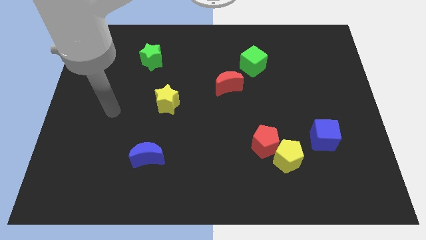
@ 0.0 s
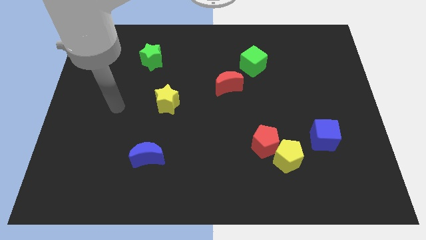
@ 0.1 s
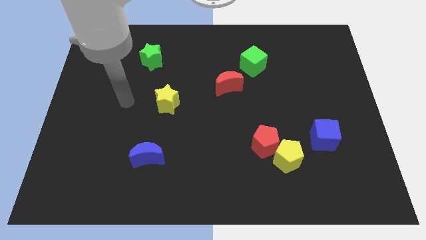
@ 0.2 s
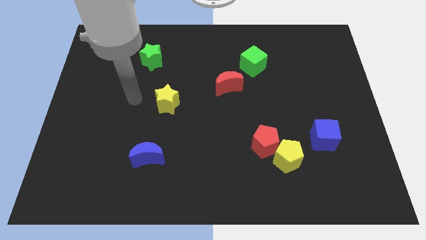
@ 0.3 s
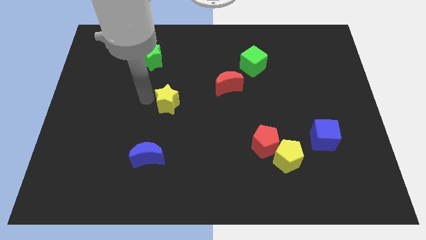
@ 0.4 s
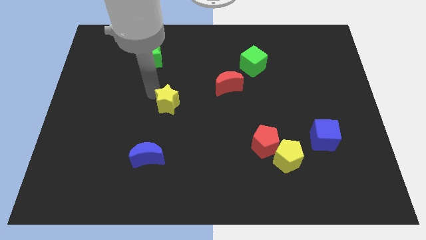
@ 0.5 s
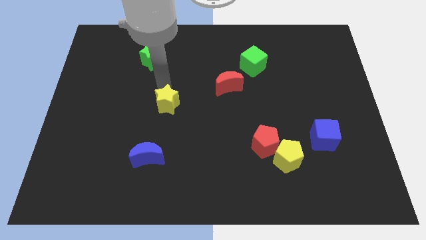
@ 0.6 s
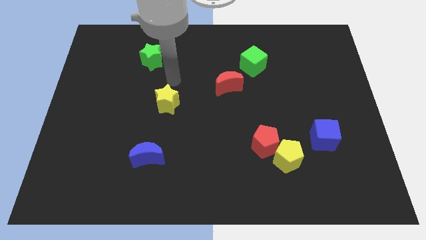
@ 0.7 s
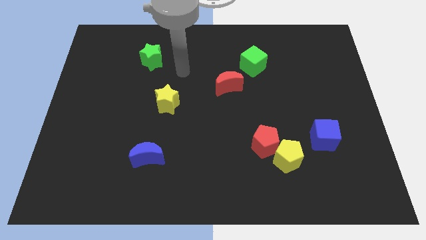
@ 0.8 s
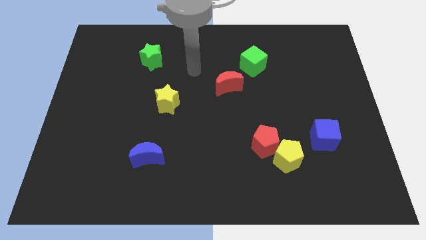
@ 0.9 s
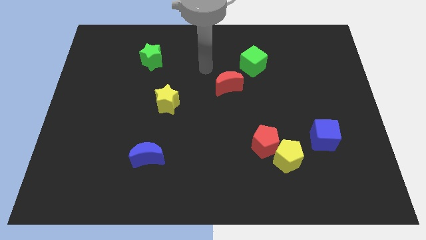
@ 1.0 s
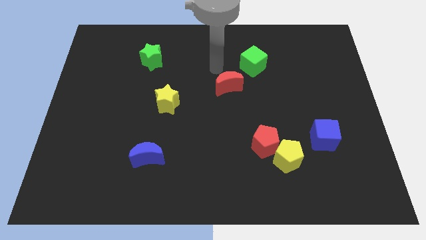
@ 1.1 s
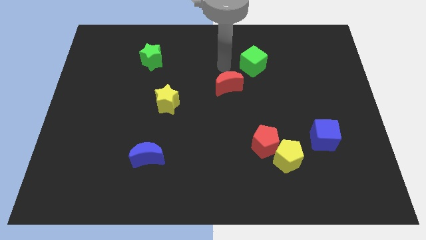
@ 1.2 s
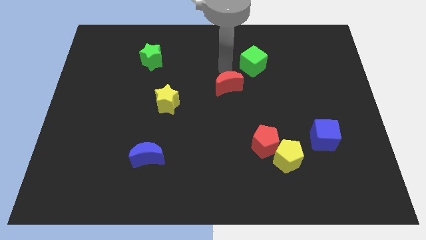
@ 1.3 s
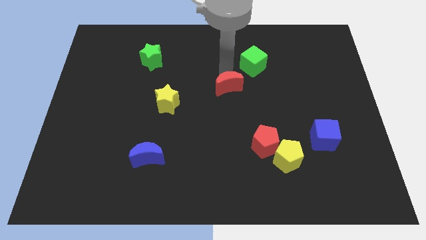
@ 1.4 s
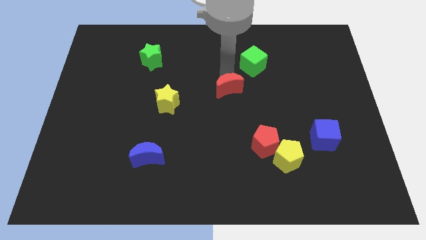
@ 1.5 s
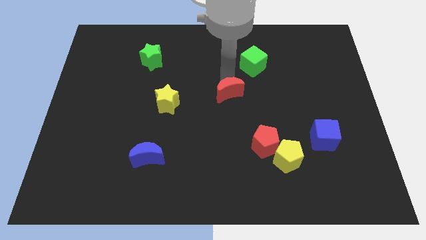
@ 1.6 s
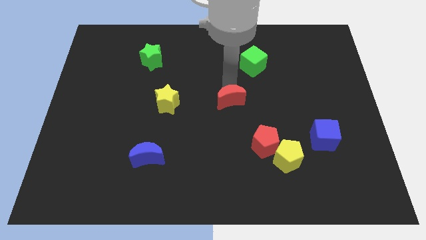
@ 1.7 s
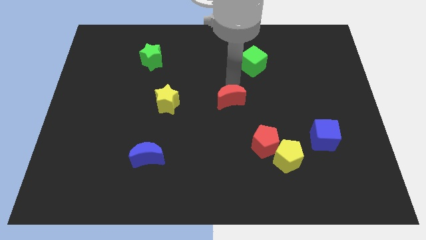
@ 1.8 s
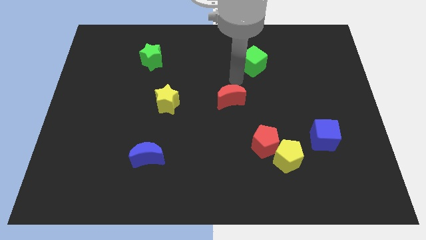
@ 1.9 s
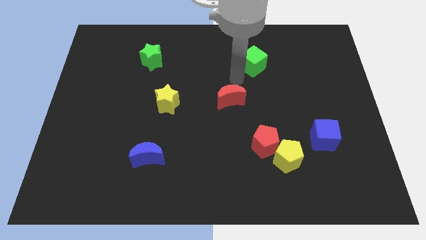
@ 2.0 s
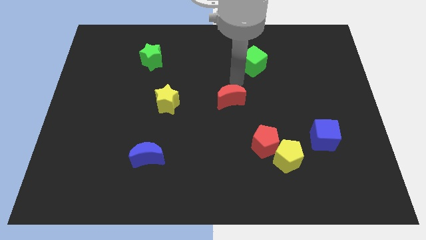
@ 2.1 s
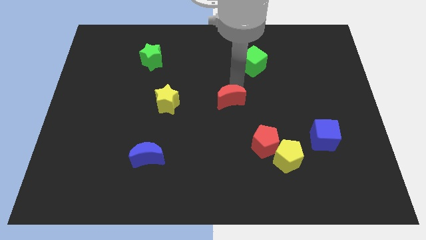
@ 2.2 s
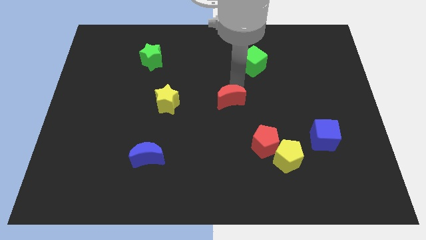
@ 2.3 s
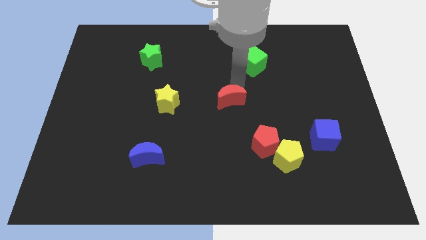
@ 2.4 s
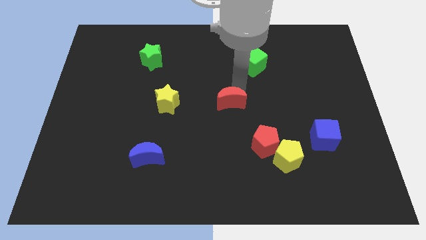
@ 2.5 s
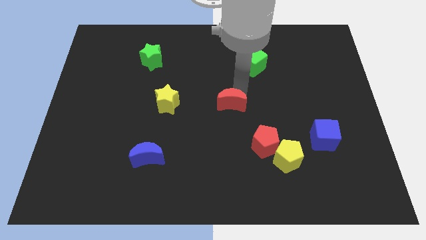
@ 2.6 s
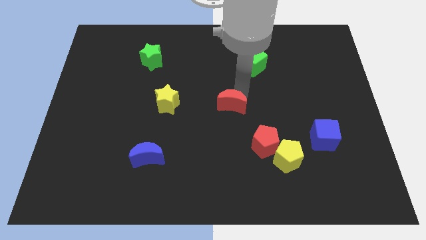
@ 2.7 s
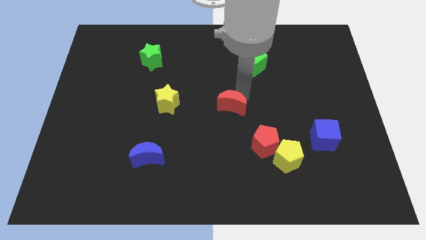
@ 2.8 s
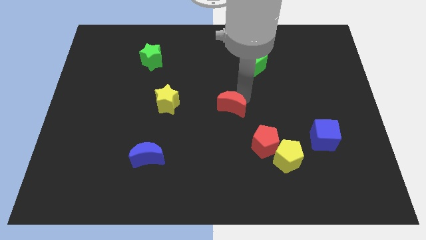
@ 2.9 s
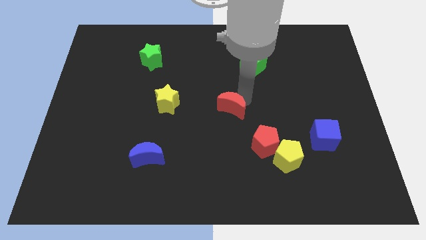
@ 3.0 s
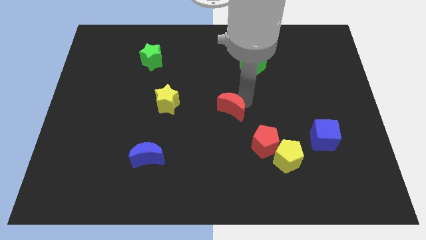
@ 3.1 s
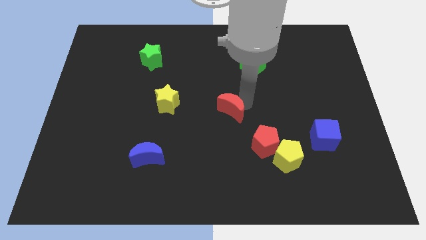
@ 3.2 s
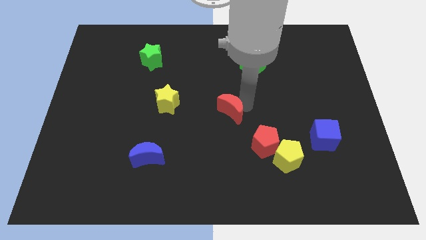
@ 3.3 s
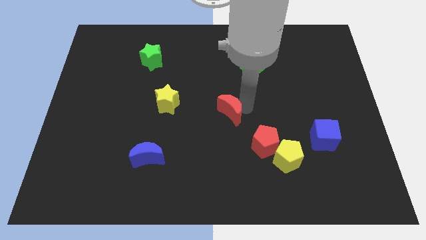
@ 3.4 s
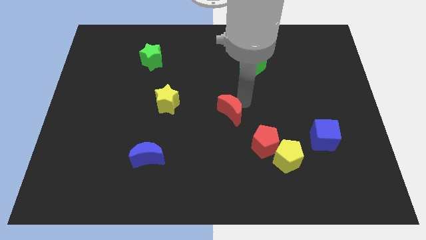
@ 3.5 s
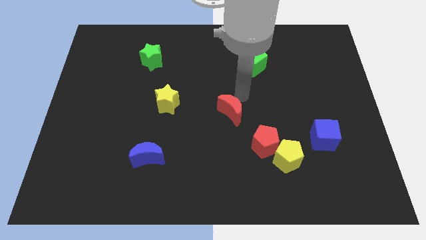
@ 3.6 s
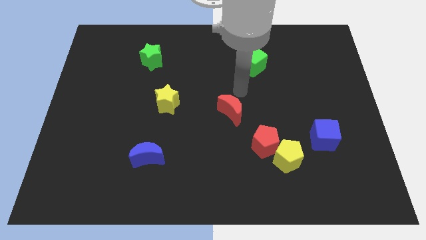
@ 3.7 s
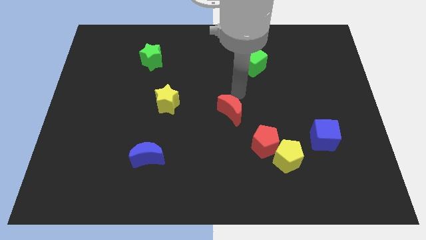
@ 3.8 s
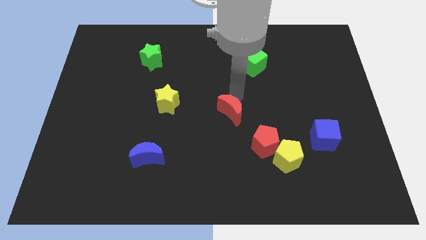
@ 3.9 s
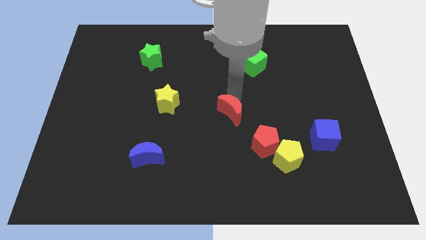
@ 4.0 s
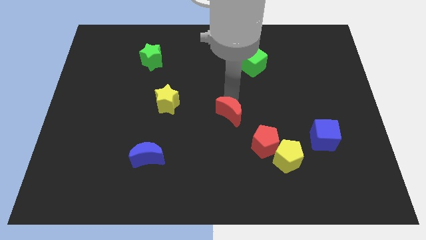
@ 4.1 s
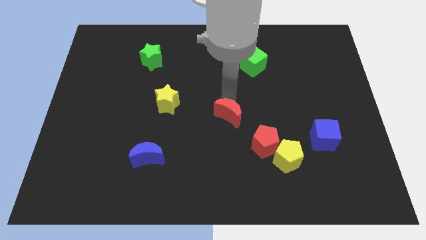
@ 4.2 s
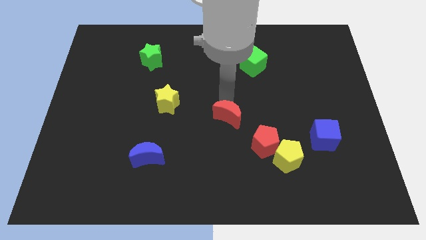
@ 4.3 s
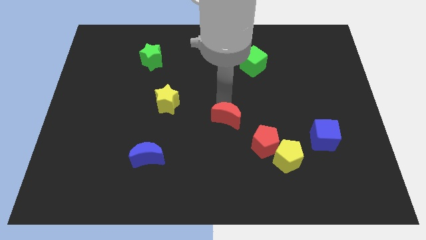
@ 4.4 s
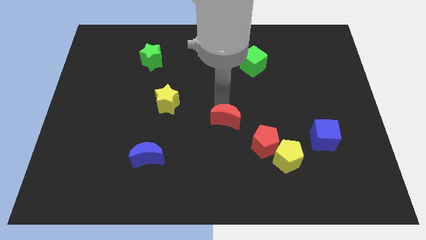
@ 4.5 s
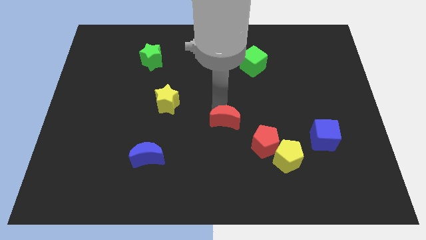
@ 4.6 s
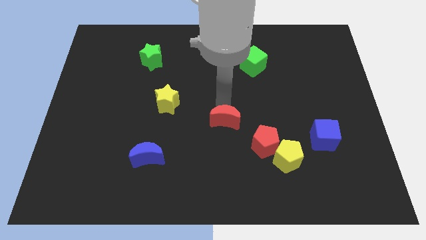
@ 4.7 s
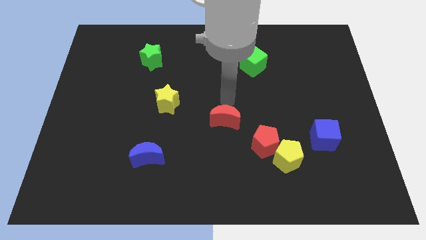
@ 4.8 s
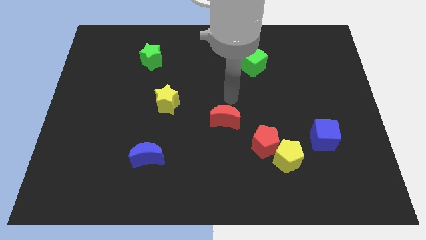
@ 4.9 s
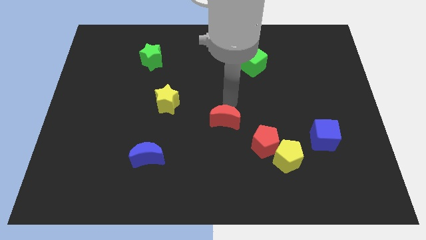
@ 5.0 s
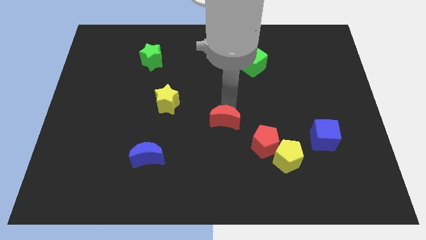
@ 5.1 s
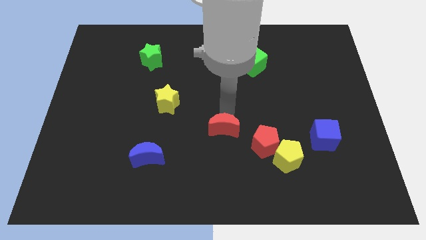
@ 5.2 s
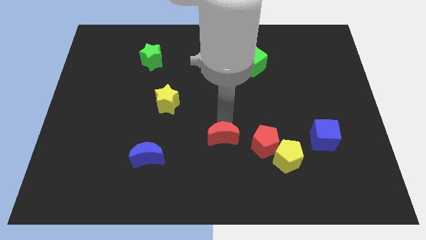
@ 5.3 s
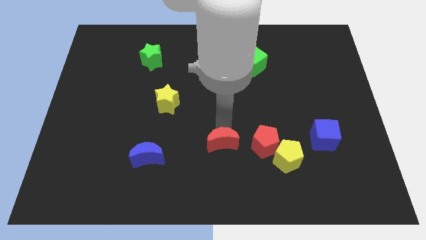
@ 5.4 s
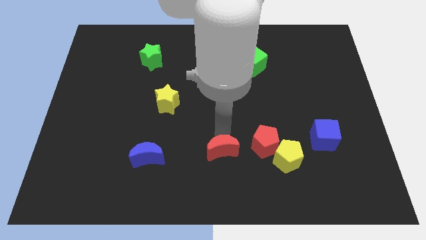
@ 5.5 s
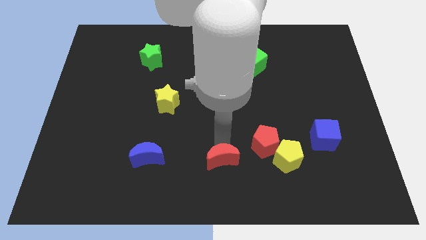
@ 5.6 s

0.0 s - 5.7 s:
put the red moon to the bottom side

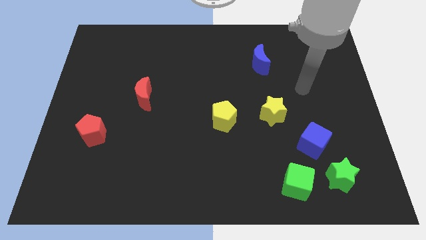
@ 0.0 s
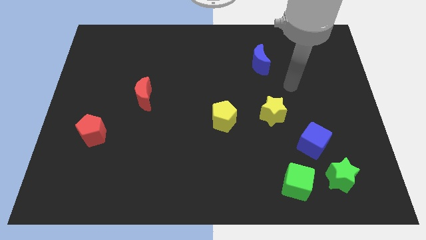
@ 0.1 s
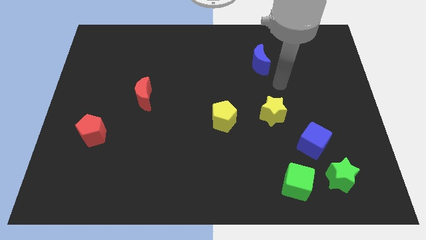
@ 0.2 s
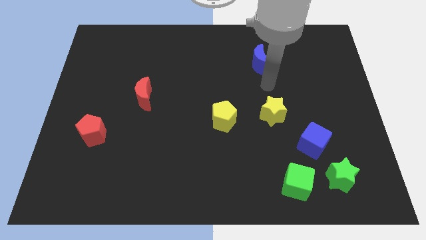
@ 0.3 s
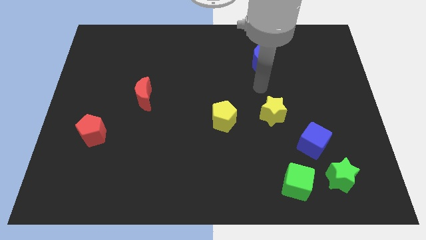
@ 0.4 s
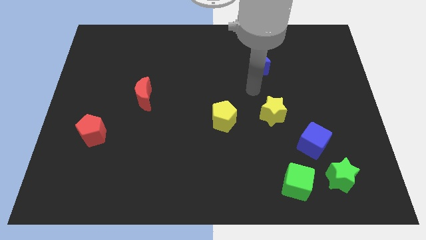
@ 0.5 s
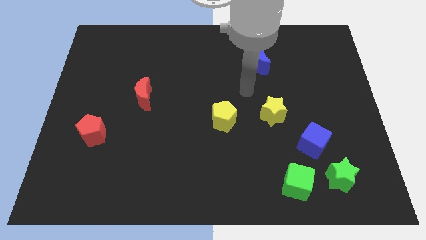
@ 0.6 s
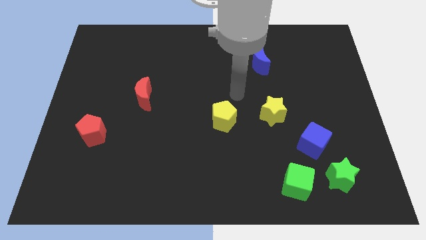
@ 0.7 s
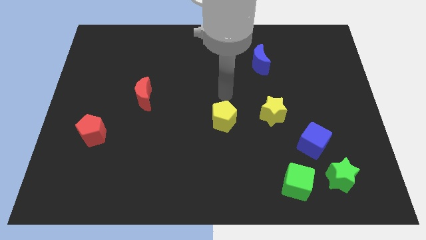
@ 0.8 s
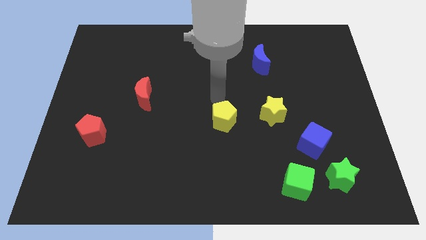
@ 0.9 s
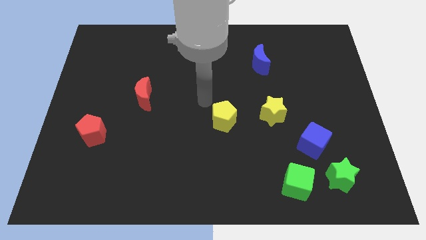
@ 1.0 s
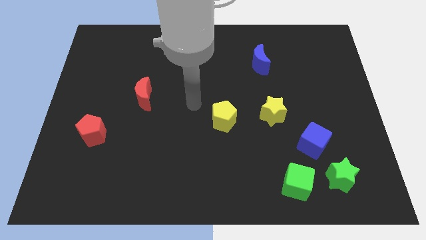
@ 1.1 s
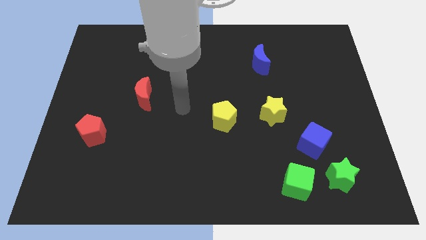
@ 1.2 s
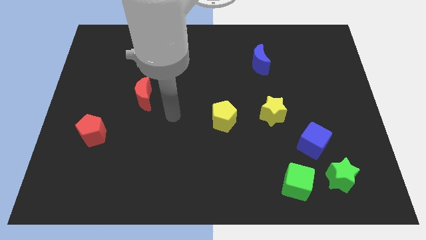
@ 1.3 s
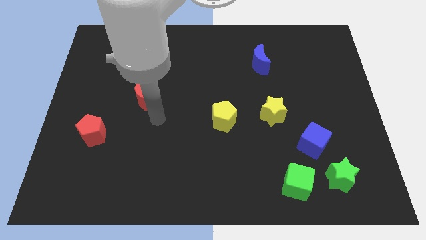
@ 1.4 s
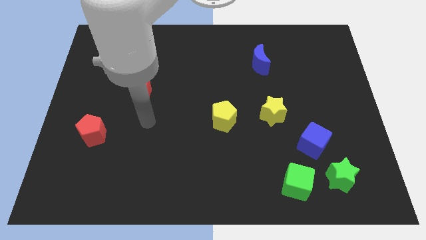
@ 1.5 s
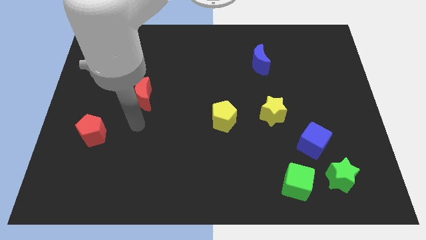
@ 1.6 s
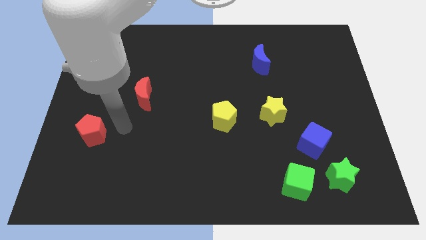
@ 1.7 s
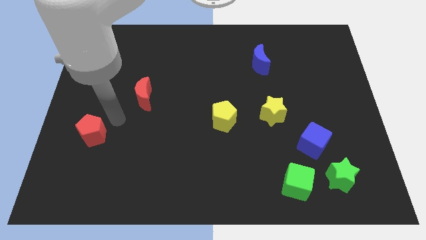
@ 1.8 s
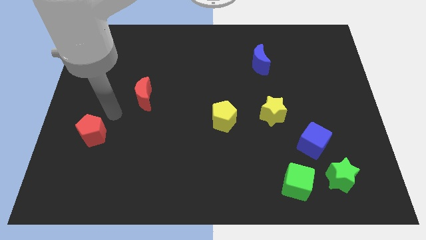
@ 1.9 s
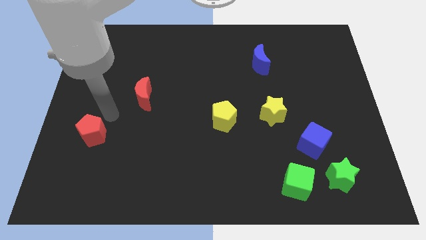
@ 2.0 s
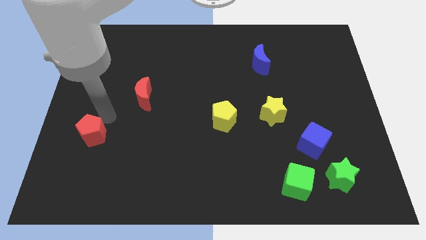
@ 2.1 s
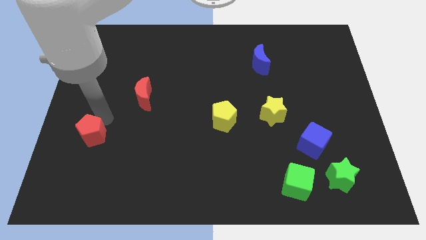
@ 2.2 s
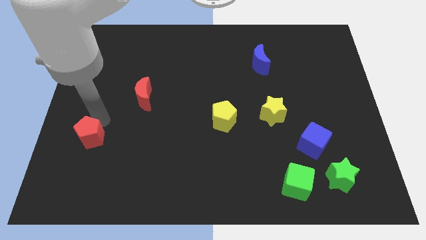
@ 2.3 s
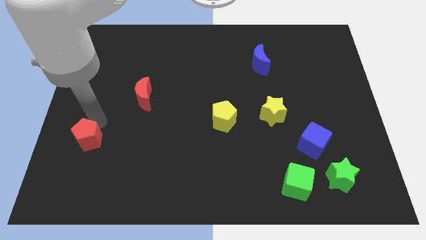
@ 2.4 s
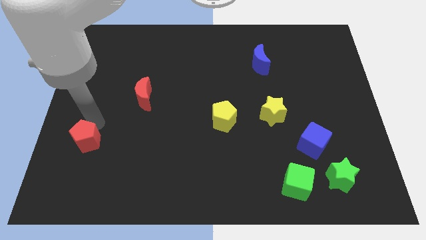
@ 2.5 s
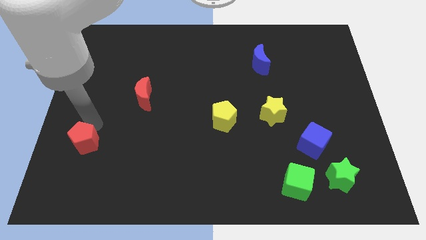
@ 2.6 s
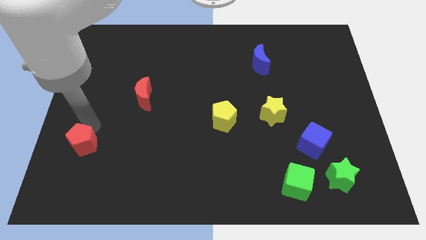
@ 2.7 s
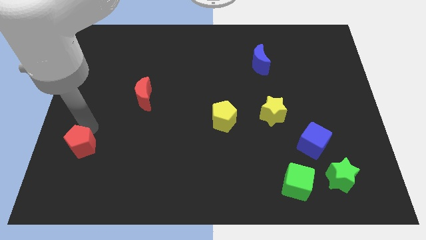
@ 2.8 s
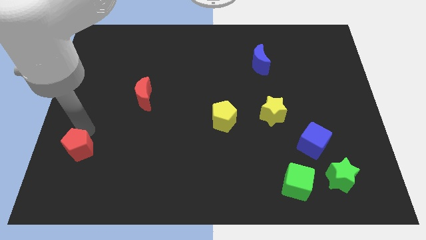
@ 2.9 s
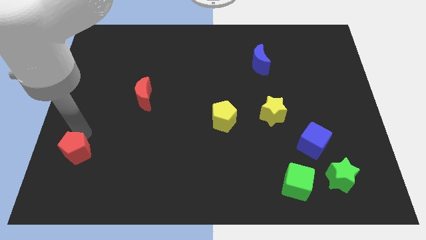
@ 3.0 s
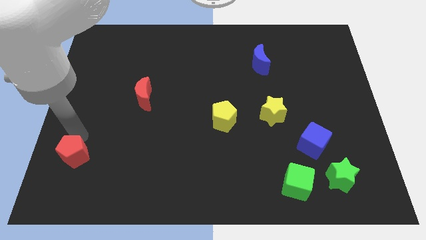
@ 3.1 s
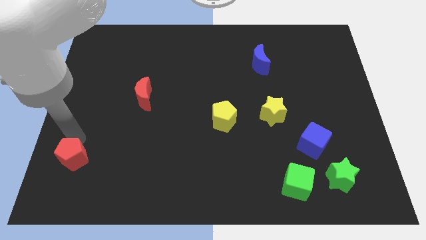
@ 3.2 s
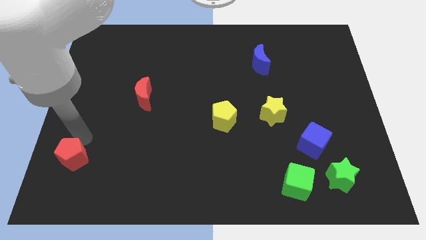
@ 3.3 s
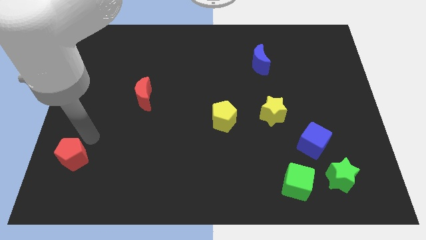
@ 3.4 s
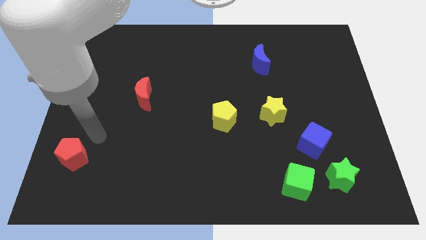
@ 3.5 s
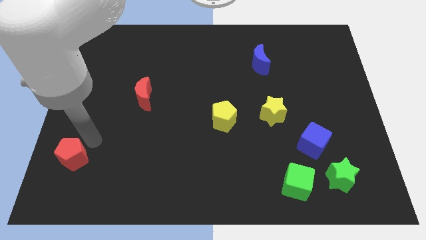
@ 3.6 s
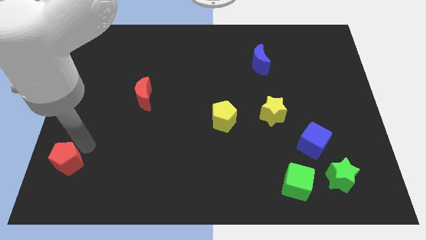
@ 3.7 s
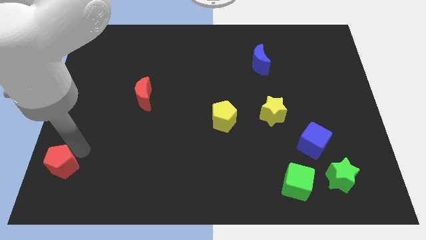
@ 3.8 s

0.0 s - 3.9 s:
slide the red pentagon to the bottom left
